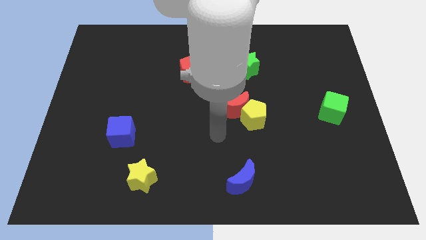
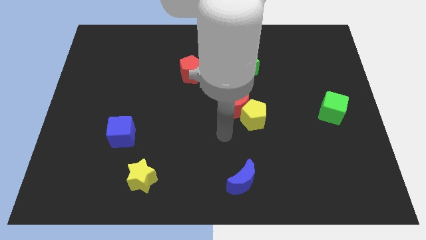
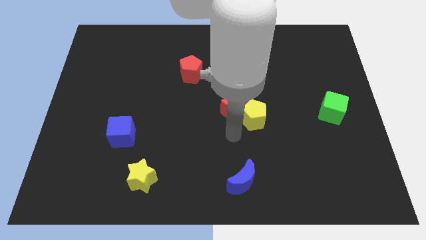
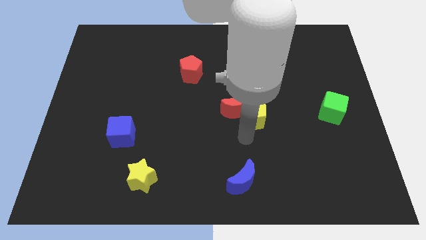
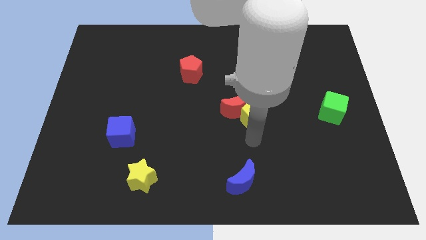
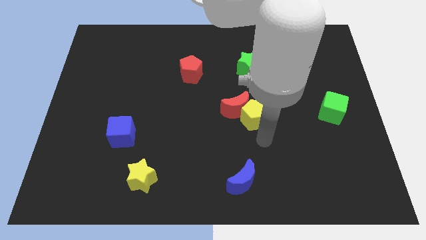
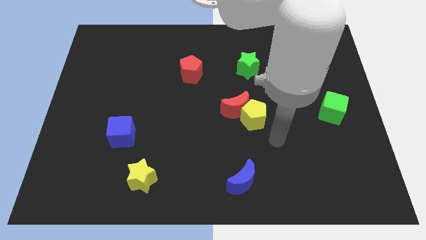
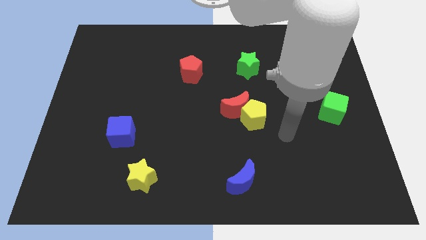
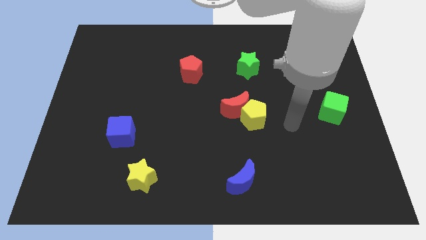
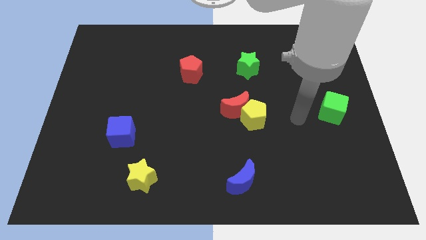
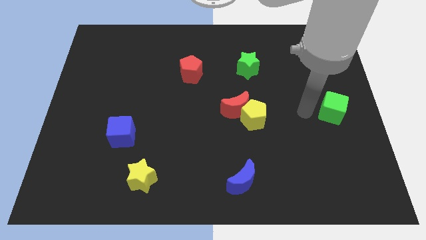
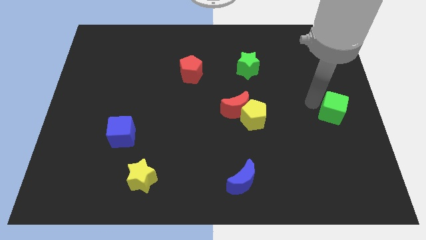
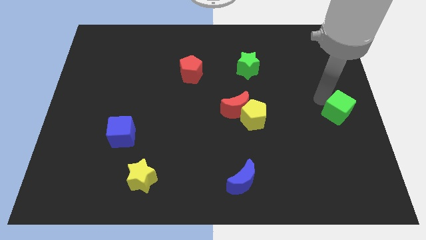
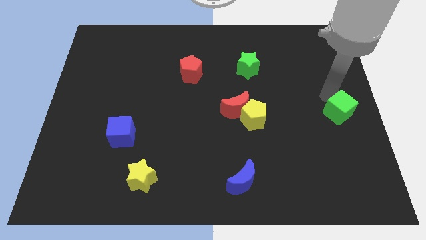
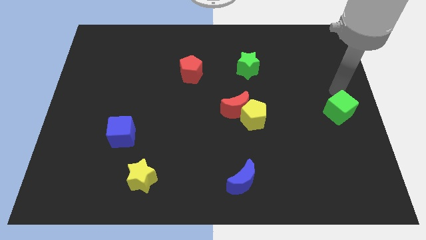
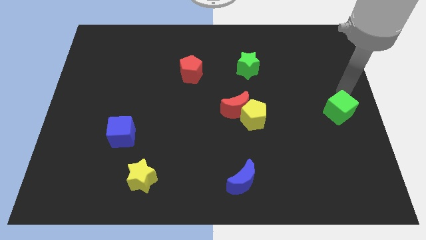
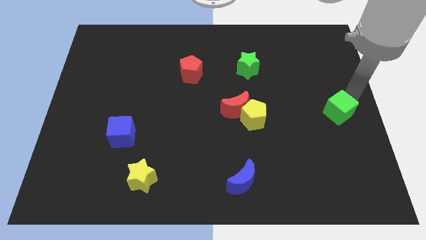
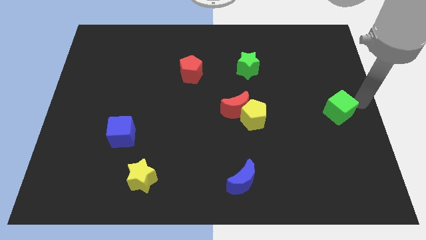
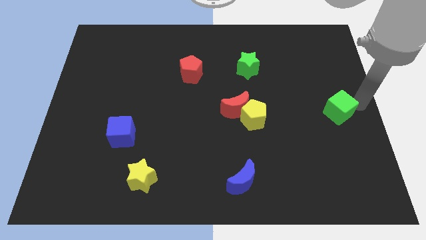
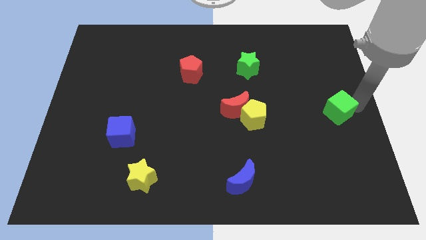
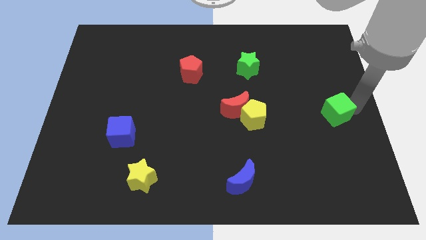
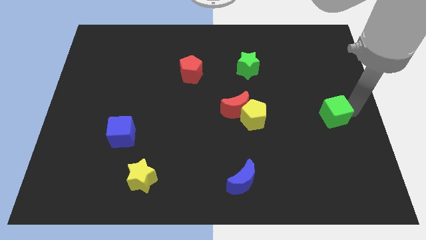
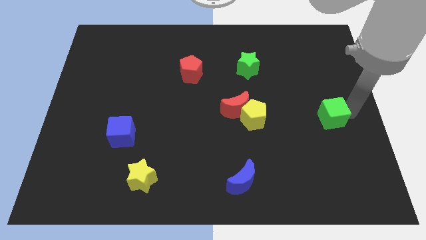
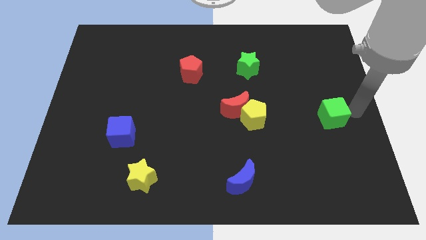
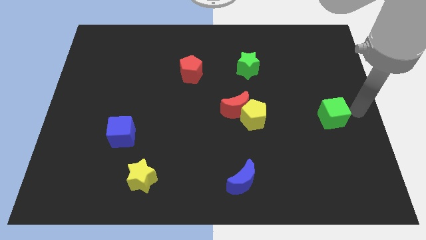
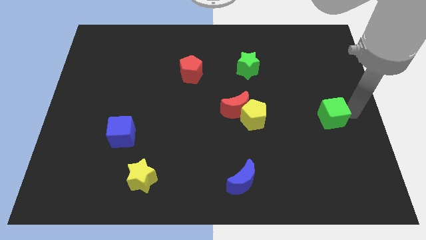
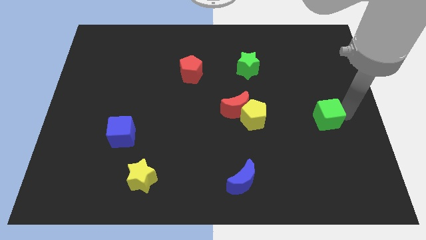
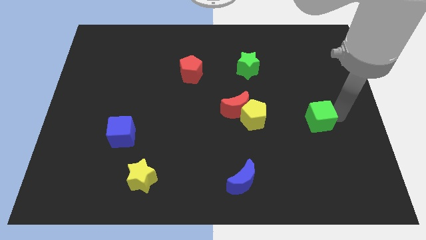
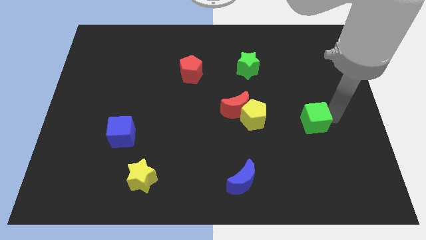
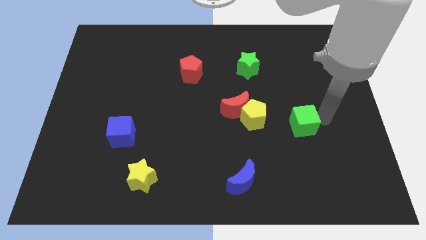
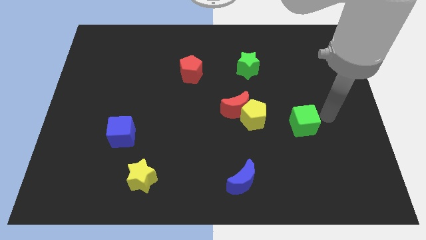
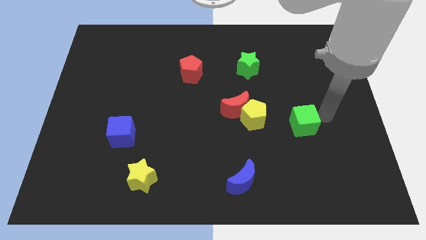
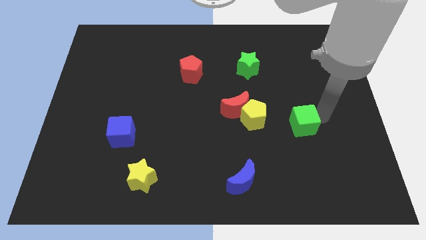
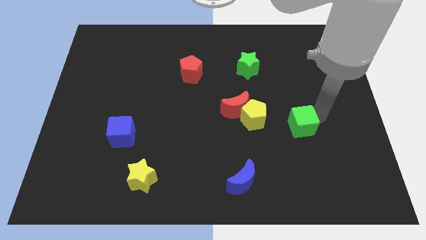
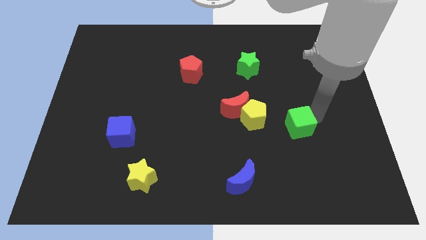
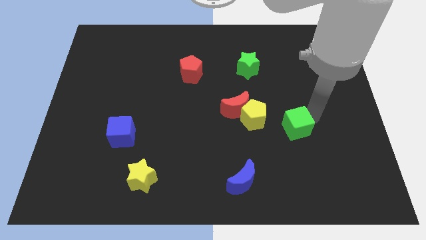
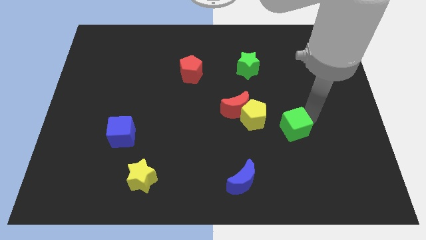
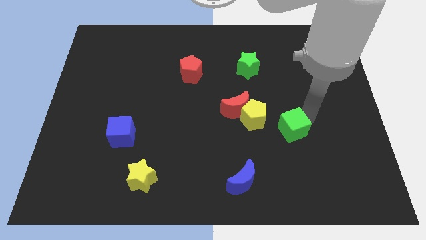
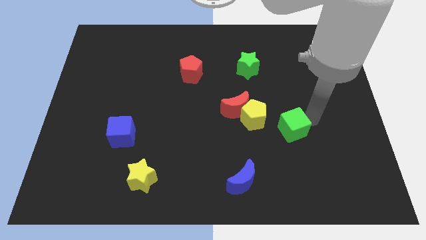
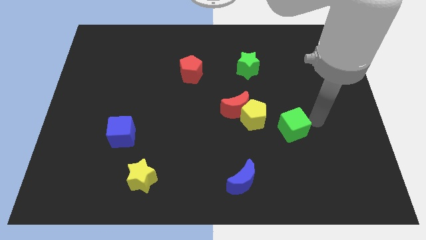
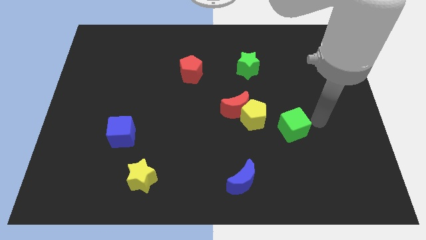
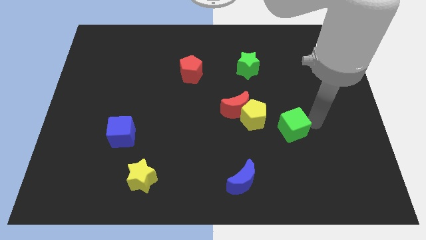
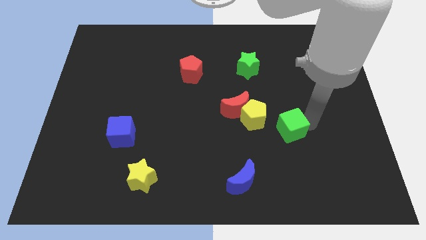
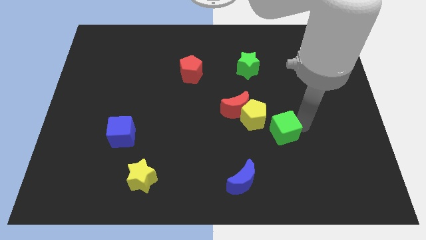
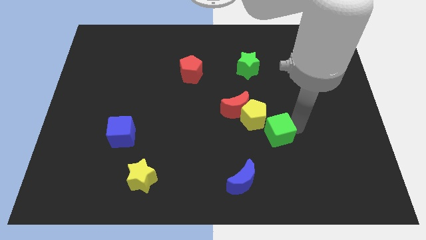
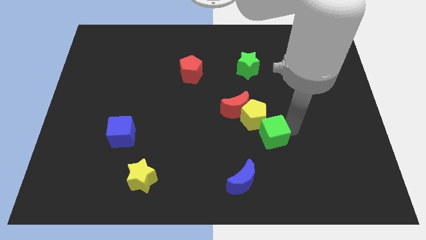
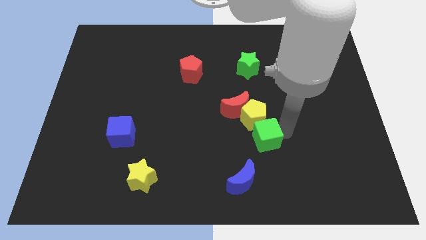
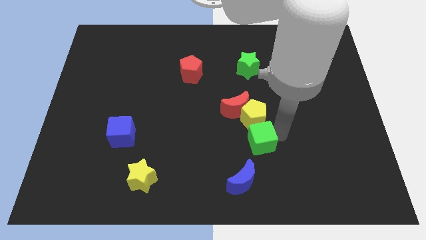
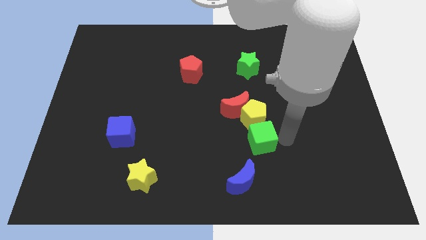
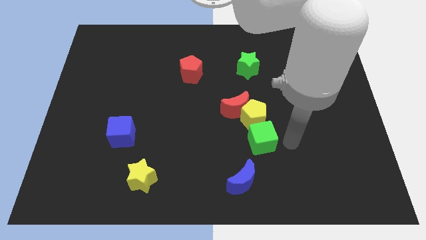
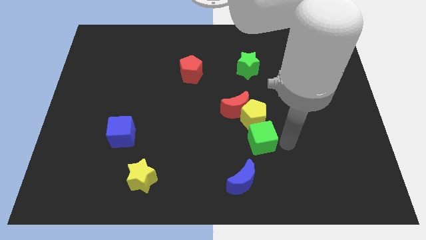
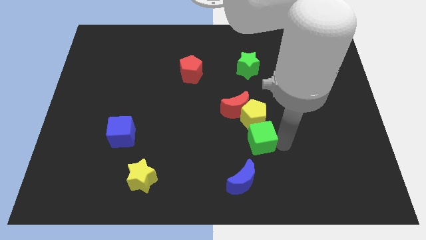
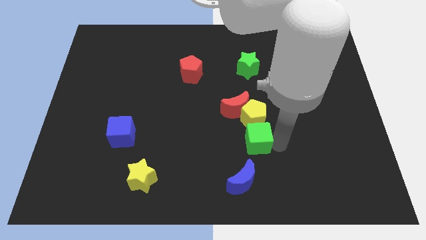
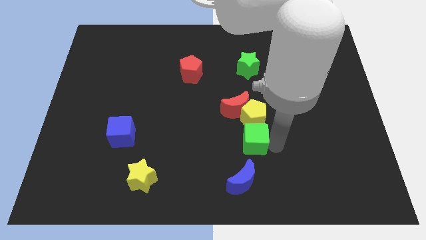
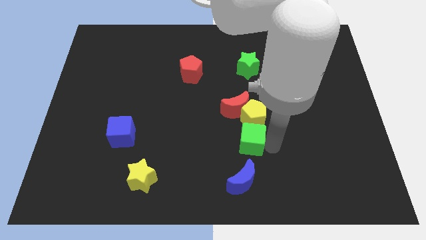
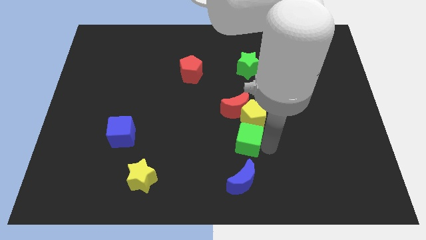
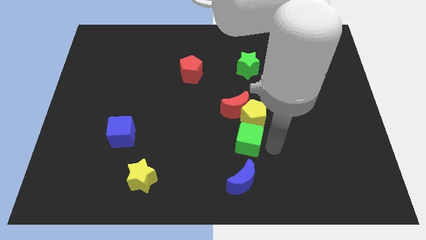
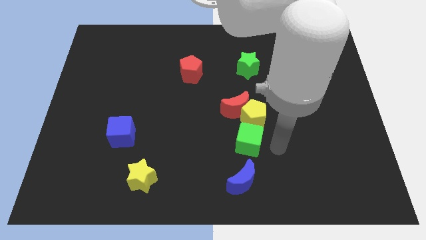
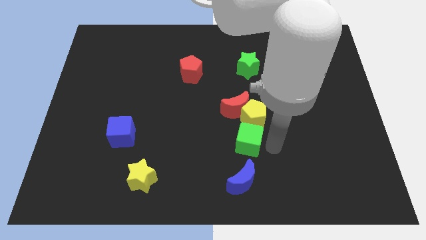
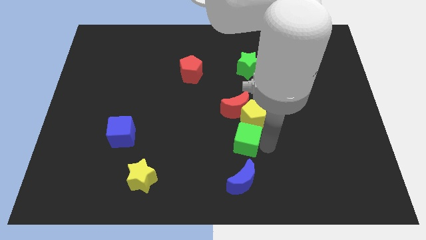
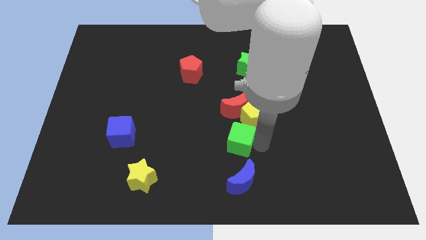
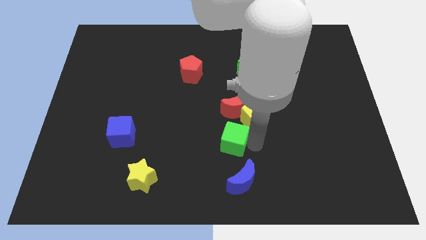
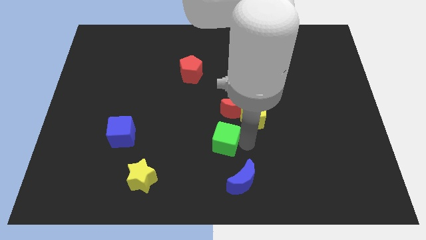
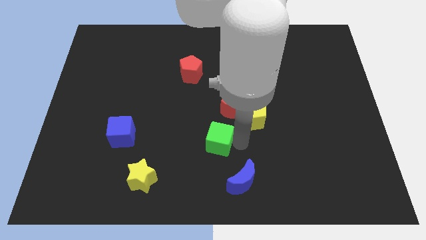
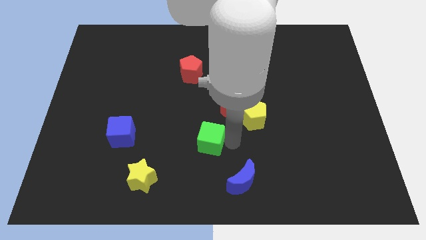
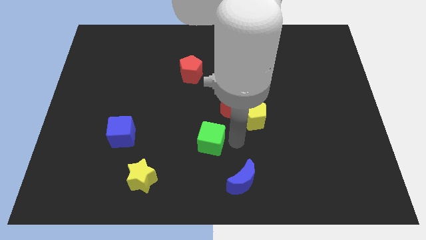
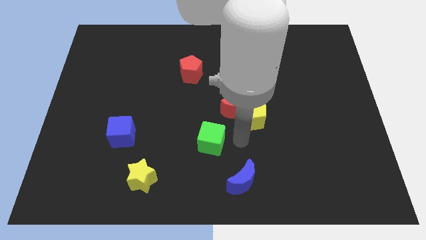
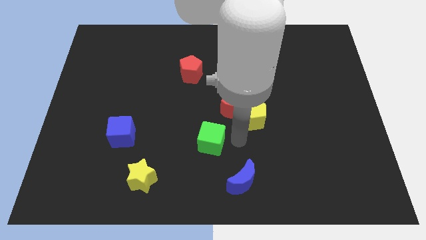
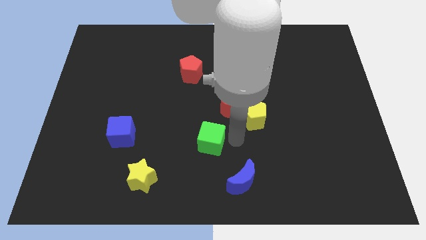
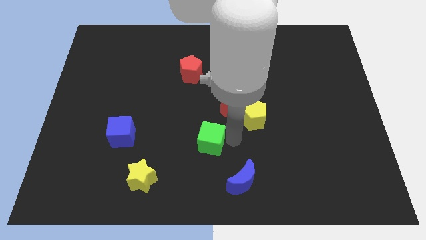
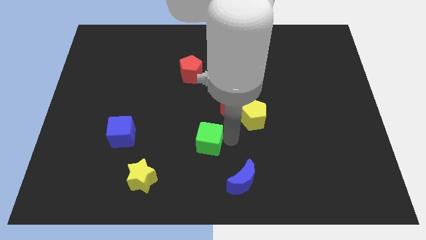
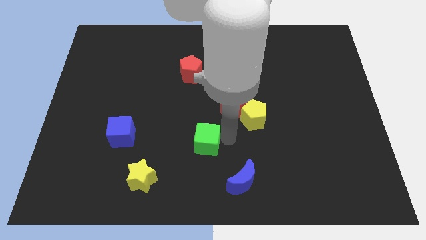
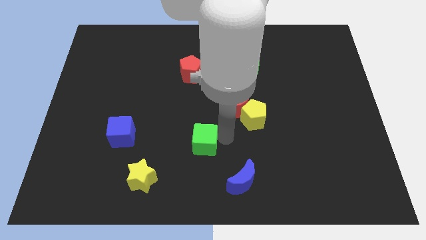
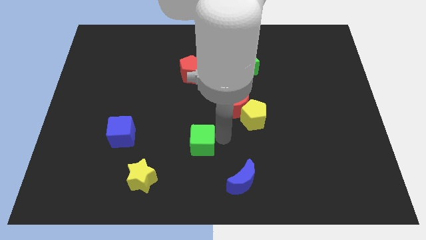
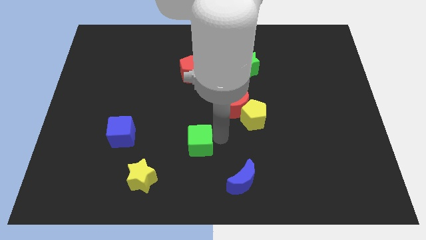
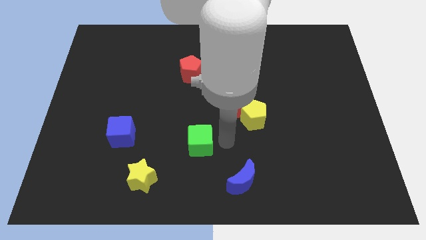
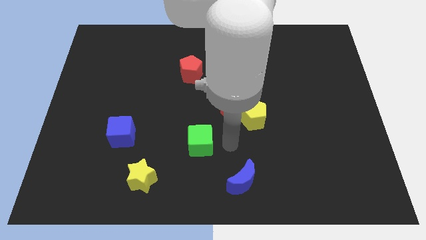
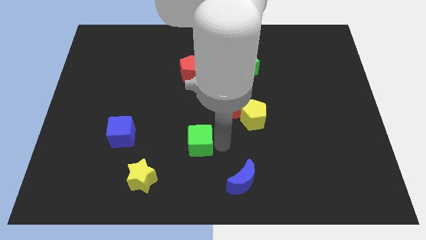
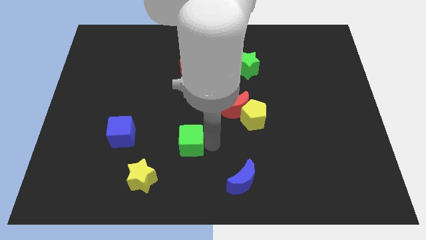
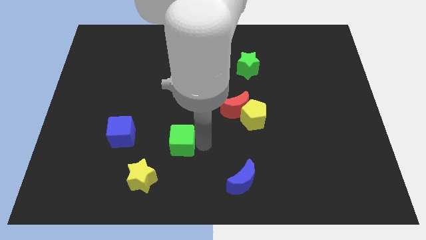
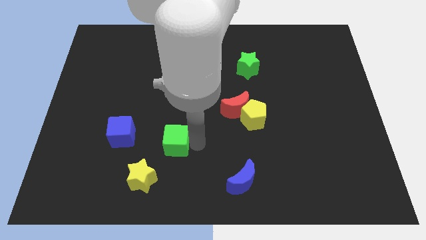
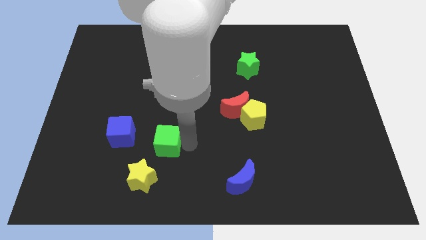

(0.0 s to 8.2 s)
move the green cube to the top side of the yellow star

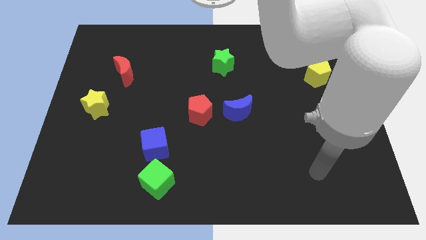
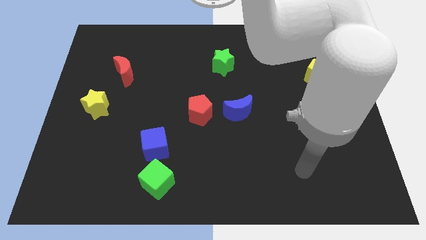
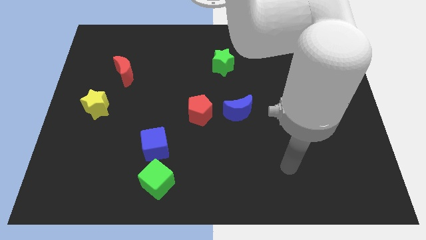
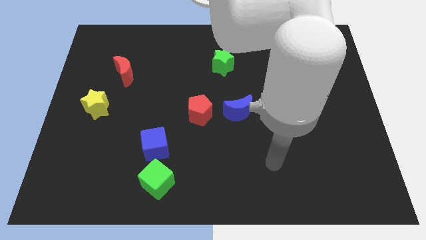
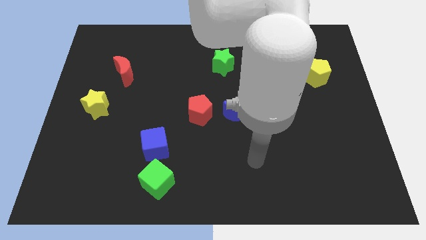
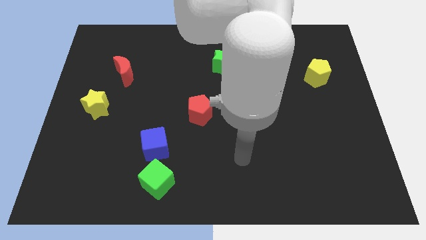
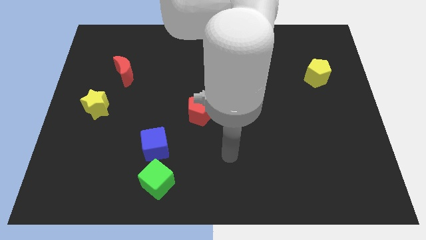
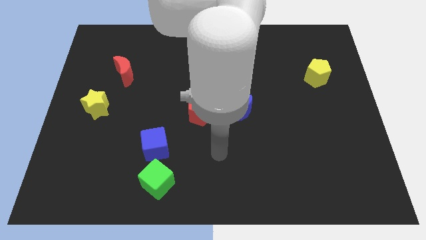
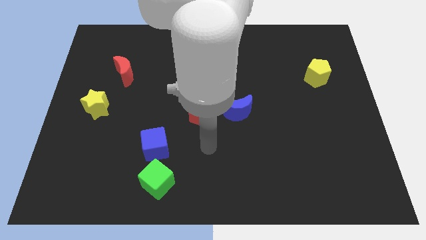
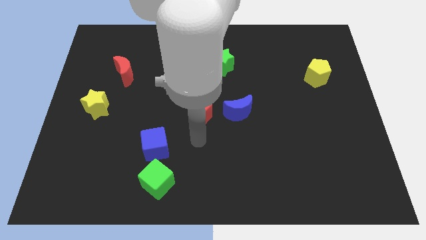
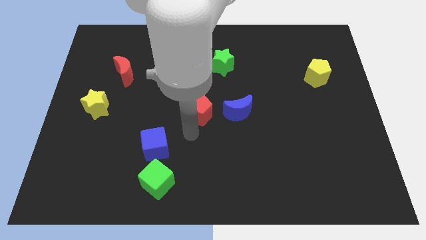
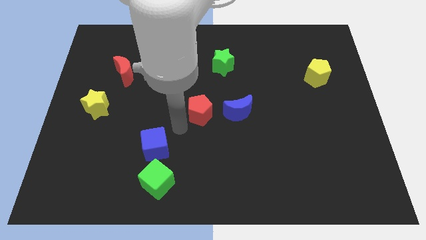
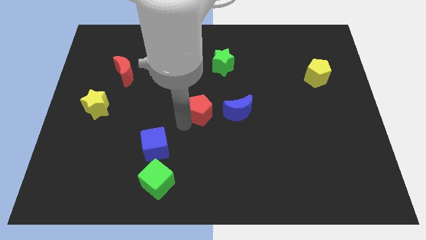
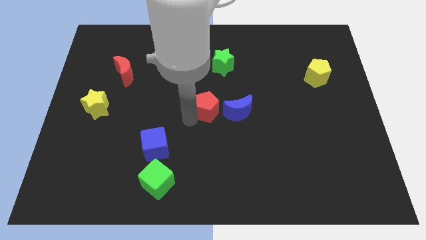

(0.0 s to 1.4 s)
put the red pentagon to the bottom of the green star
